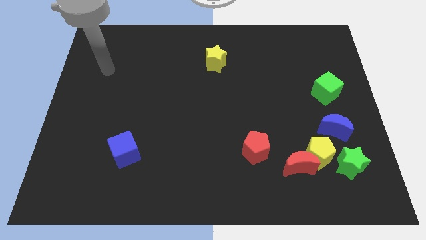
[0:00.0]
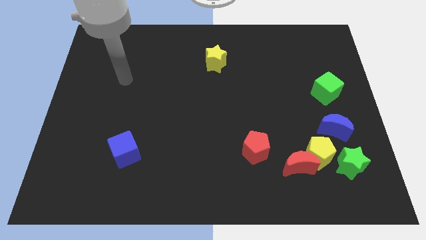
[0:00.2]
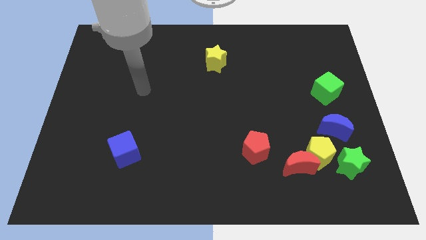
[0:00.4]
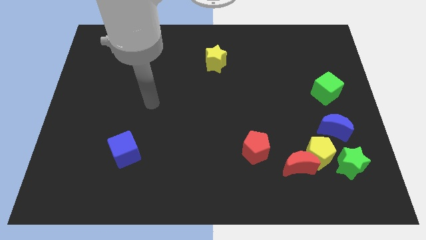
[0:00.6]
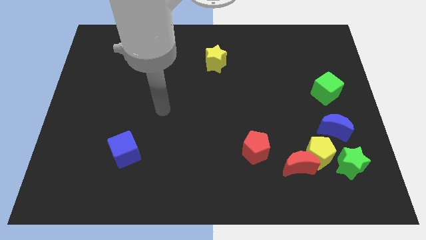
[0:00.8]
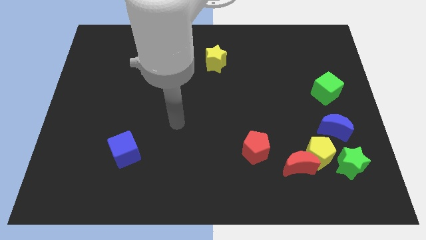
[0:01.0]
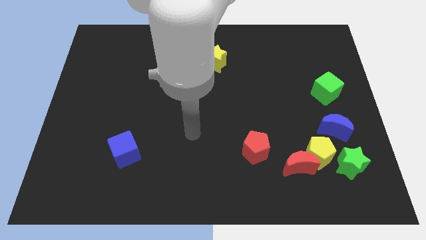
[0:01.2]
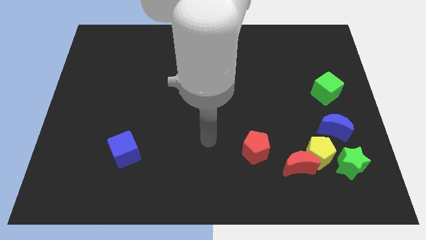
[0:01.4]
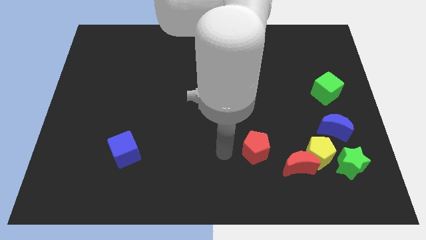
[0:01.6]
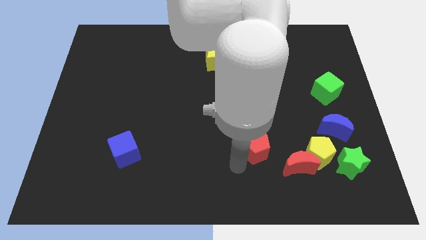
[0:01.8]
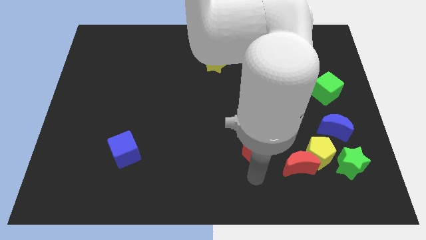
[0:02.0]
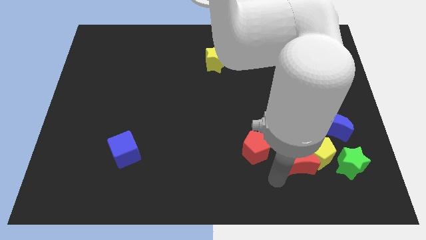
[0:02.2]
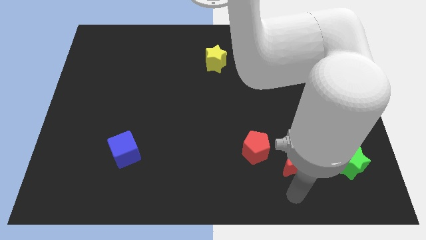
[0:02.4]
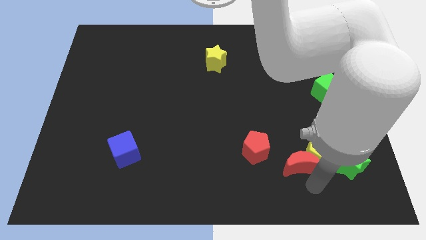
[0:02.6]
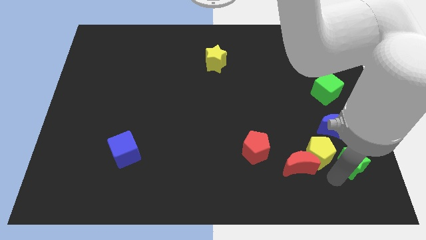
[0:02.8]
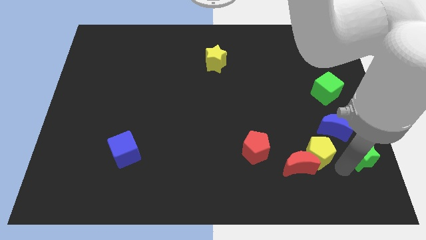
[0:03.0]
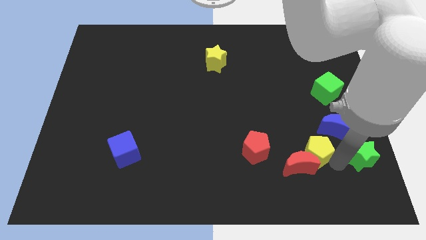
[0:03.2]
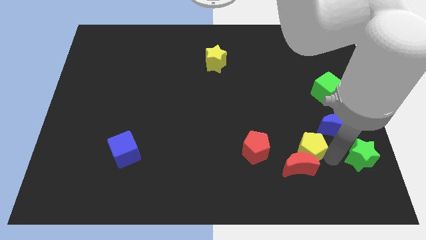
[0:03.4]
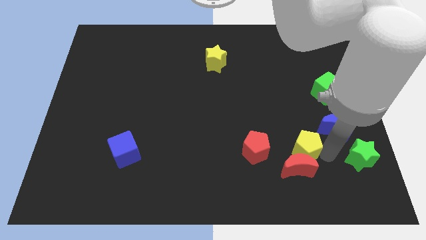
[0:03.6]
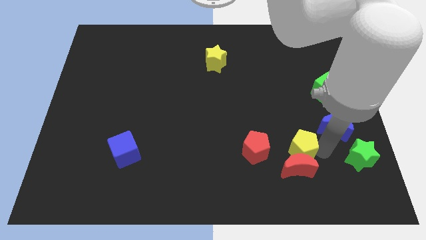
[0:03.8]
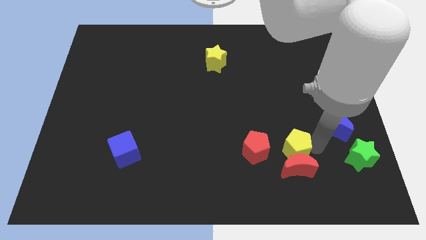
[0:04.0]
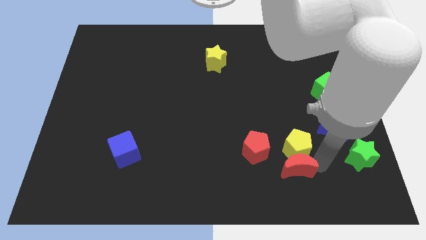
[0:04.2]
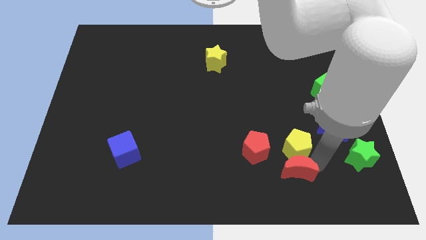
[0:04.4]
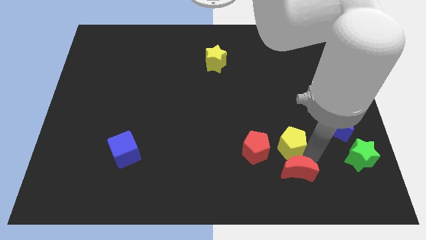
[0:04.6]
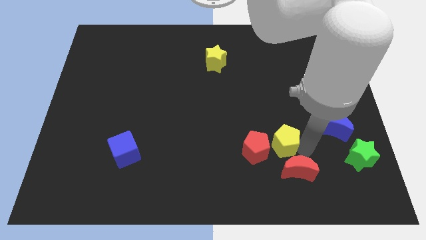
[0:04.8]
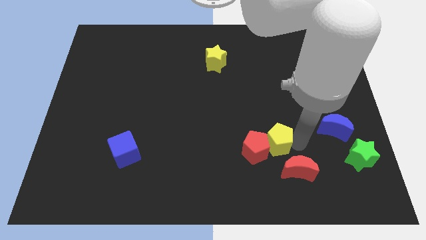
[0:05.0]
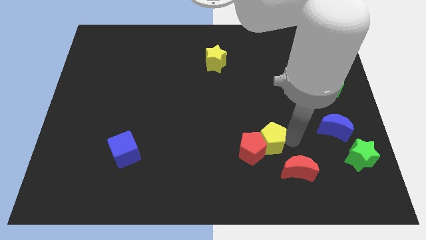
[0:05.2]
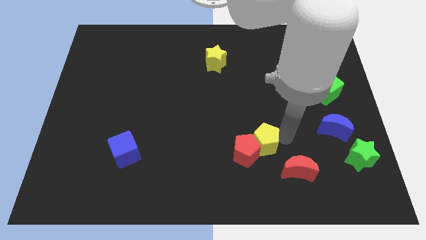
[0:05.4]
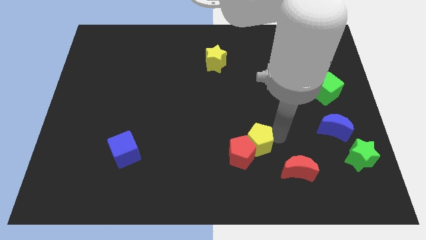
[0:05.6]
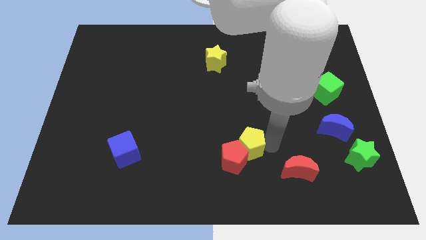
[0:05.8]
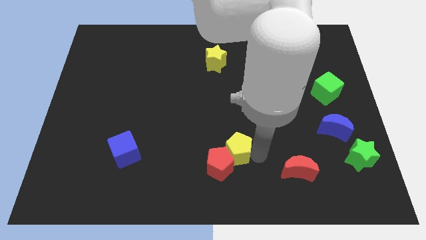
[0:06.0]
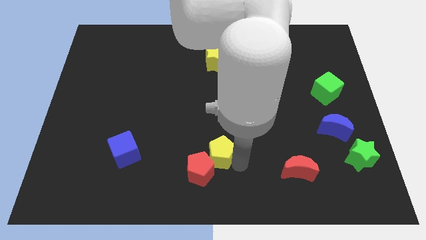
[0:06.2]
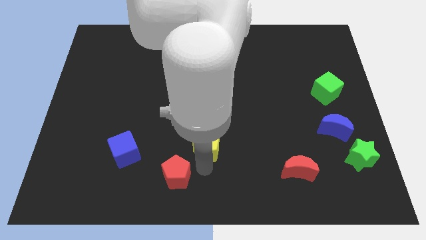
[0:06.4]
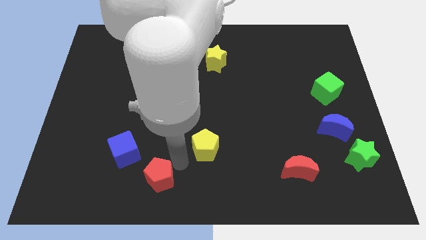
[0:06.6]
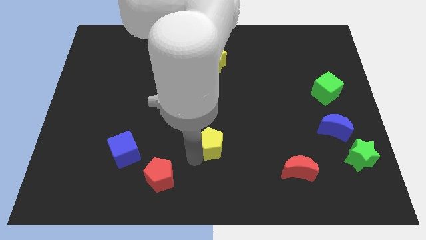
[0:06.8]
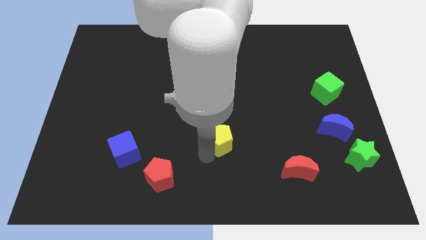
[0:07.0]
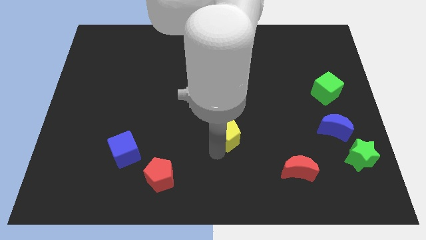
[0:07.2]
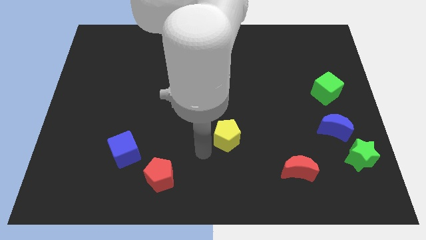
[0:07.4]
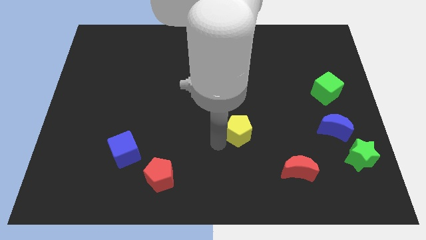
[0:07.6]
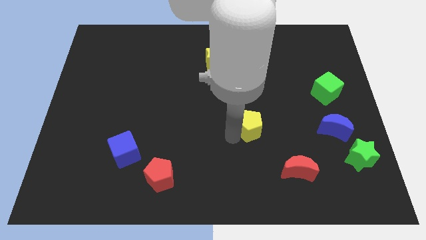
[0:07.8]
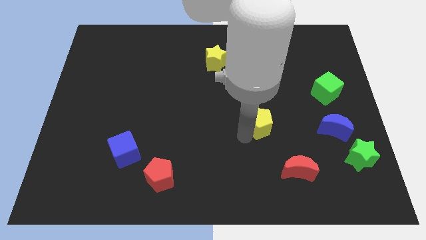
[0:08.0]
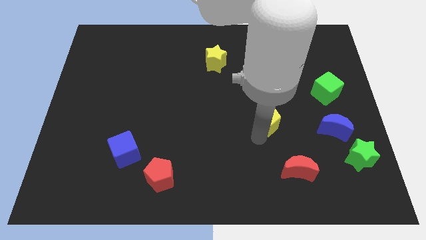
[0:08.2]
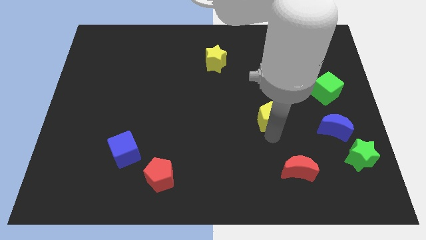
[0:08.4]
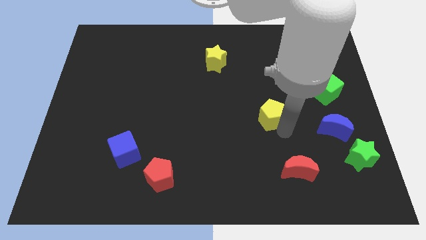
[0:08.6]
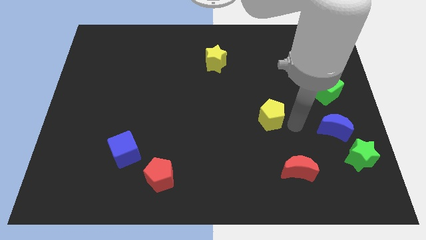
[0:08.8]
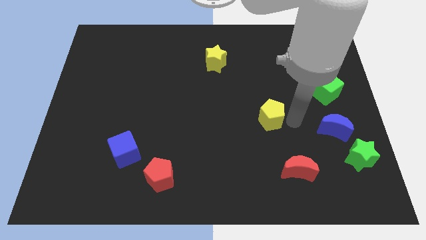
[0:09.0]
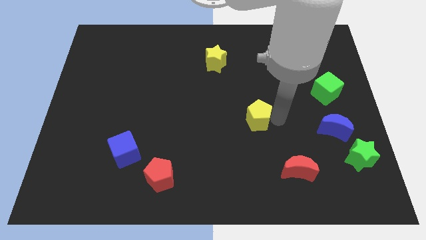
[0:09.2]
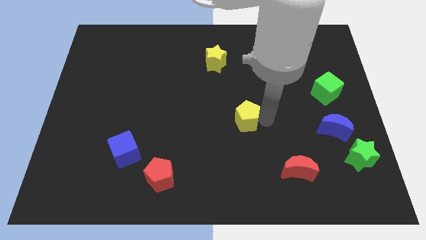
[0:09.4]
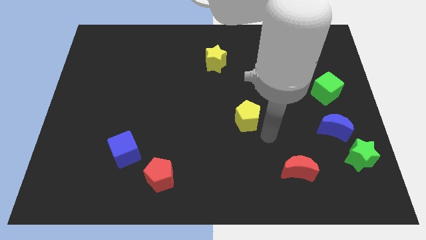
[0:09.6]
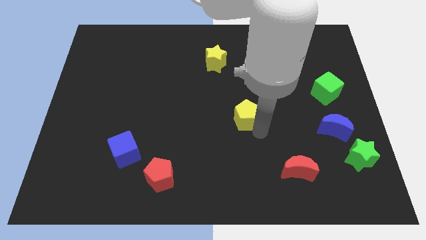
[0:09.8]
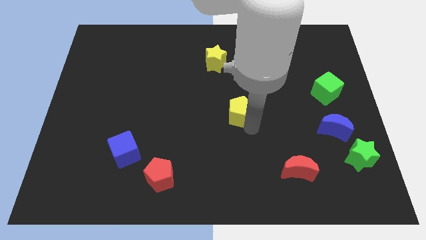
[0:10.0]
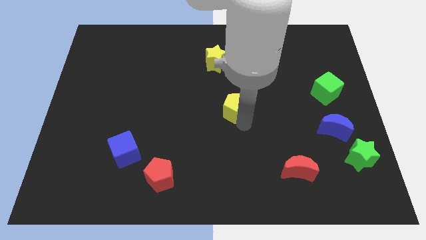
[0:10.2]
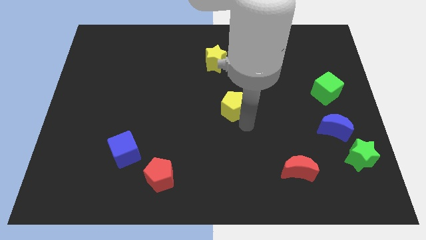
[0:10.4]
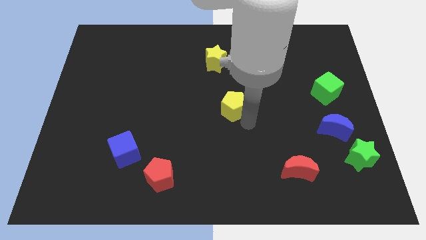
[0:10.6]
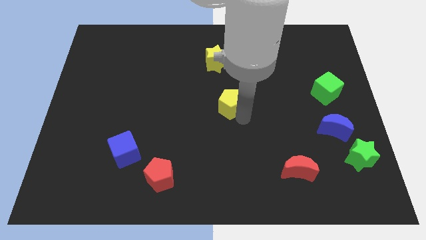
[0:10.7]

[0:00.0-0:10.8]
push the yellow pentagon to the bottom of the yellow star
